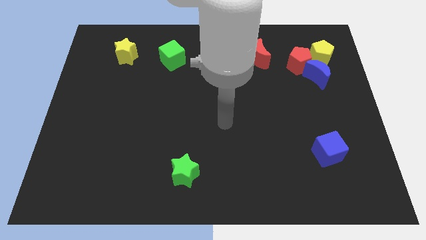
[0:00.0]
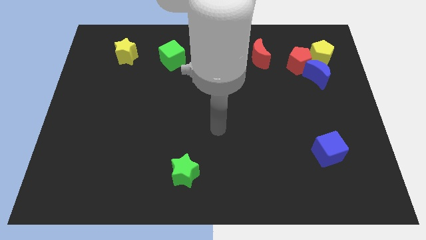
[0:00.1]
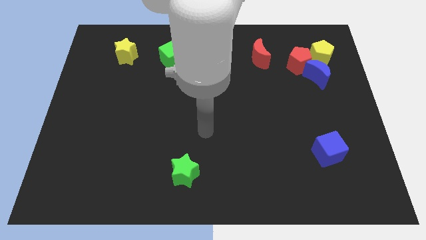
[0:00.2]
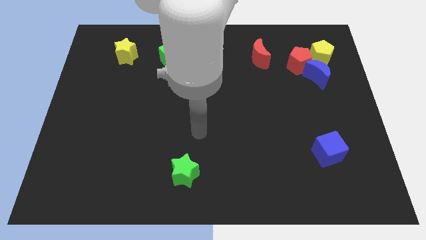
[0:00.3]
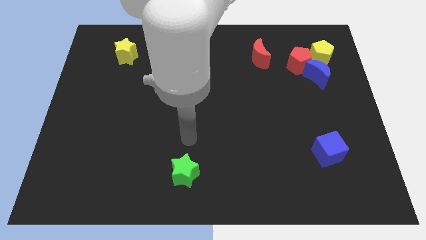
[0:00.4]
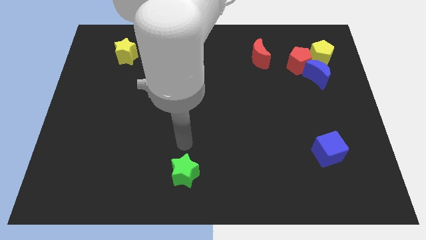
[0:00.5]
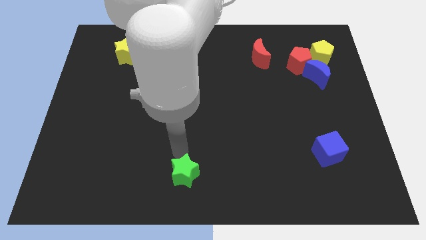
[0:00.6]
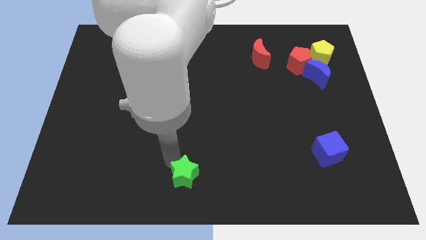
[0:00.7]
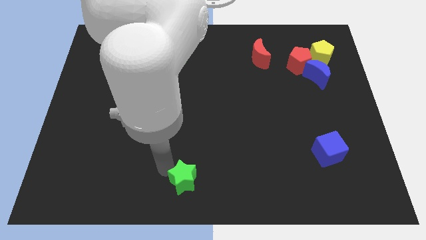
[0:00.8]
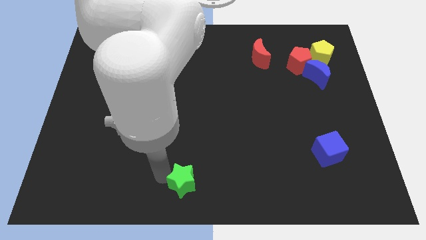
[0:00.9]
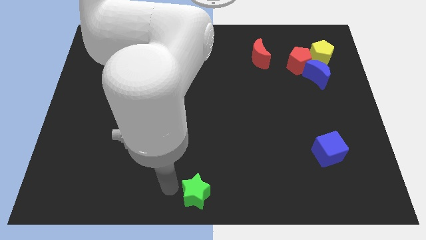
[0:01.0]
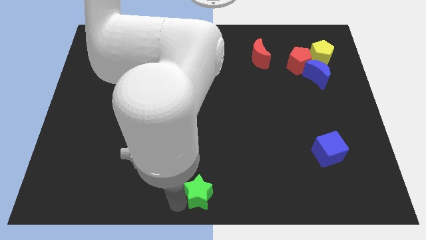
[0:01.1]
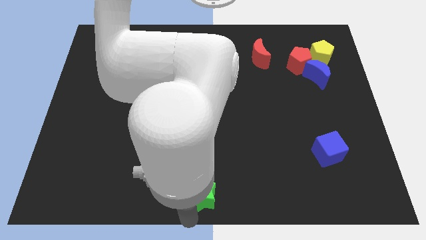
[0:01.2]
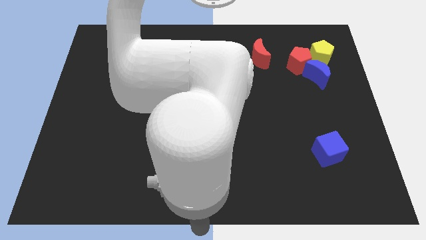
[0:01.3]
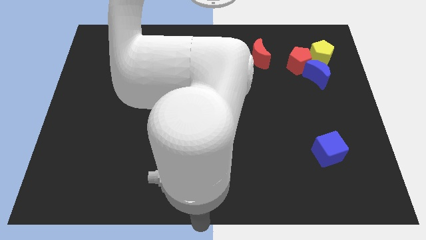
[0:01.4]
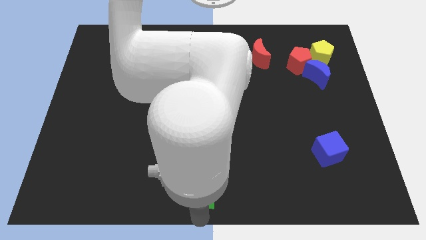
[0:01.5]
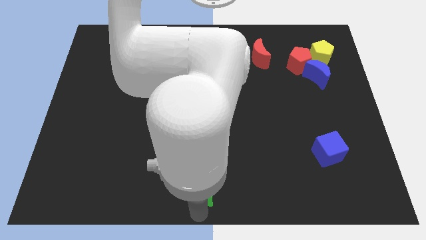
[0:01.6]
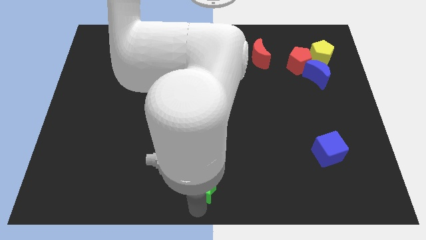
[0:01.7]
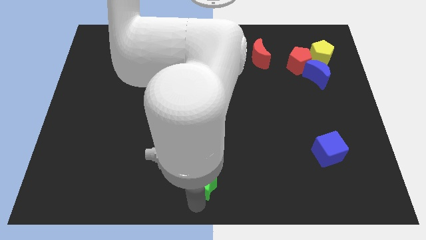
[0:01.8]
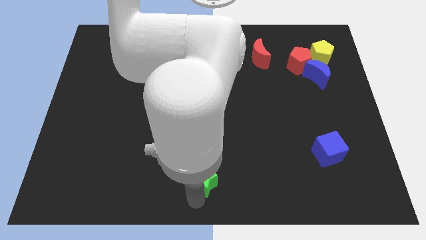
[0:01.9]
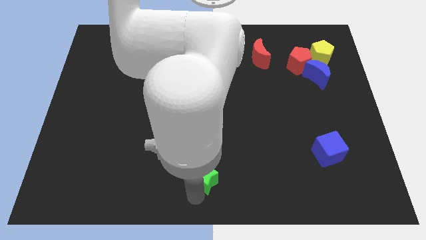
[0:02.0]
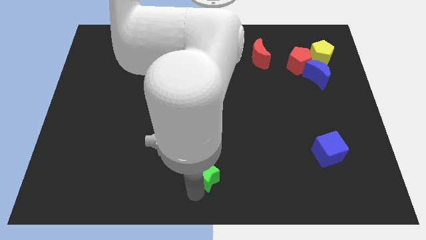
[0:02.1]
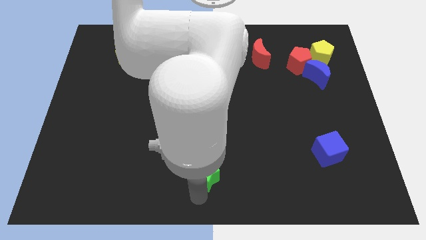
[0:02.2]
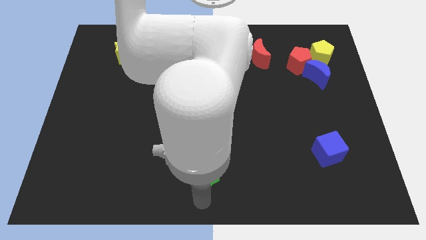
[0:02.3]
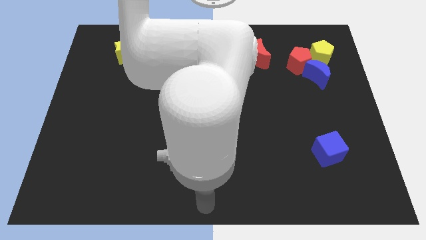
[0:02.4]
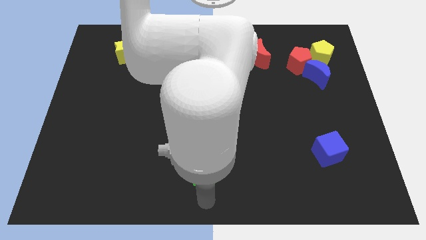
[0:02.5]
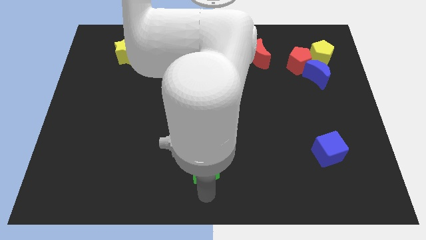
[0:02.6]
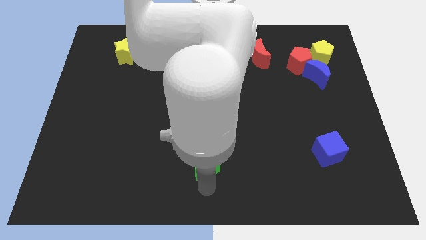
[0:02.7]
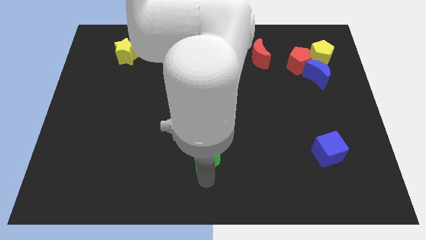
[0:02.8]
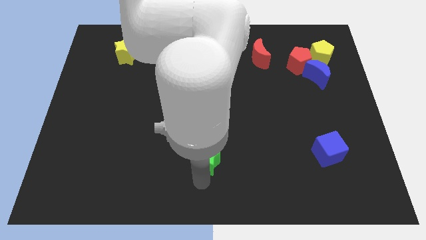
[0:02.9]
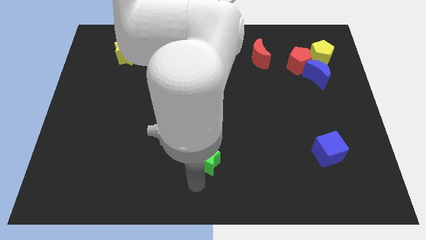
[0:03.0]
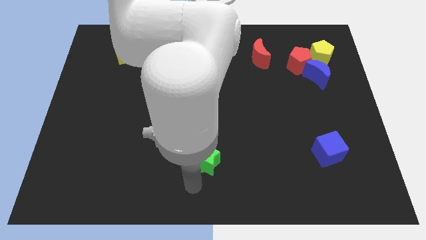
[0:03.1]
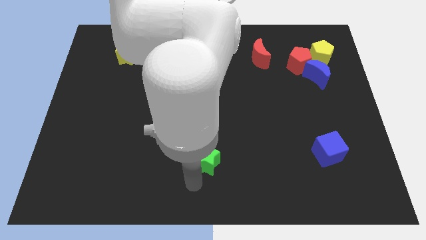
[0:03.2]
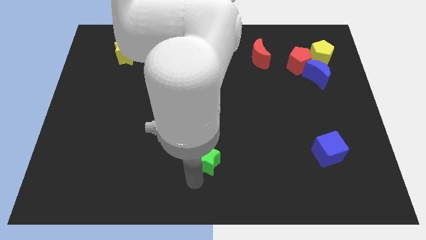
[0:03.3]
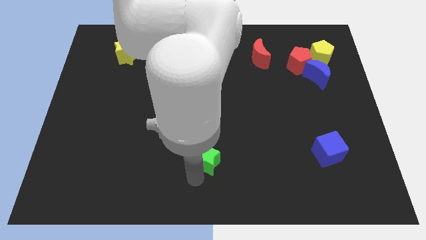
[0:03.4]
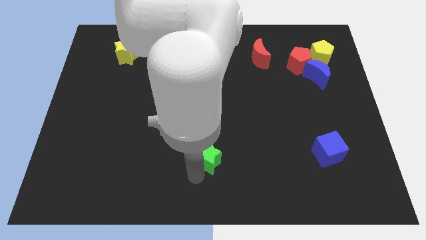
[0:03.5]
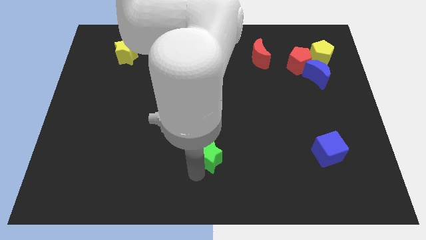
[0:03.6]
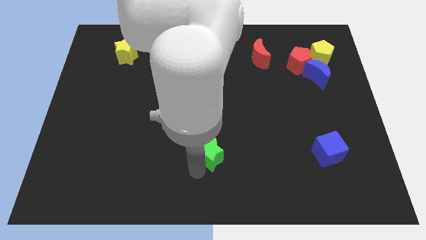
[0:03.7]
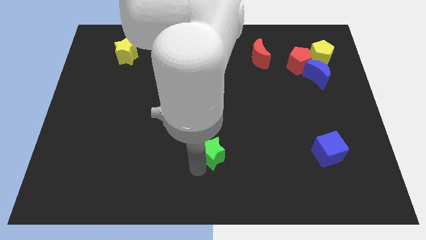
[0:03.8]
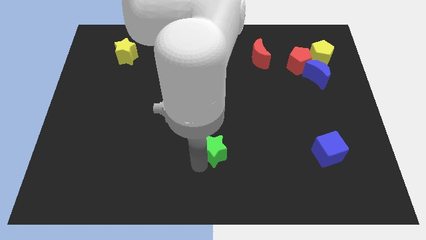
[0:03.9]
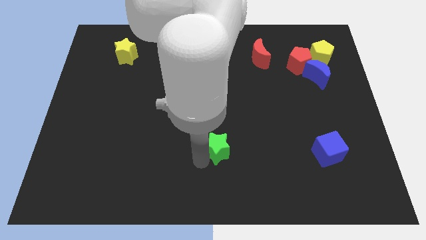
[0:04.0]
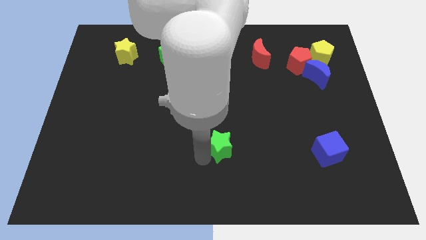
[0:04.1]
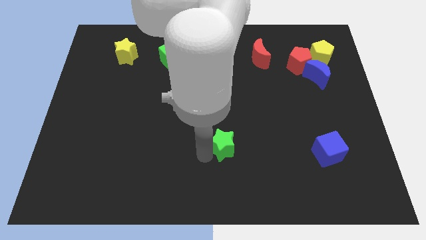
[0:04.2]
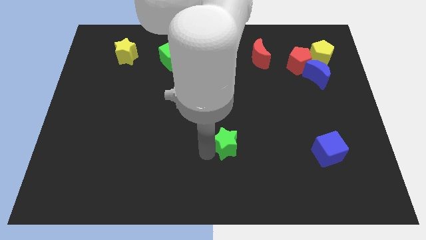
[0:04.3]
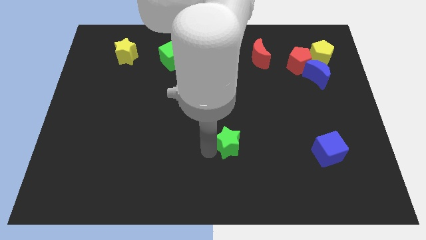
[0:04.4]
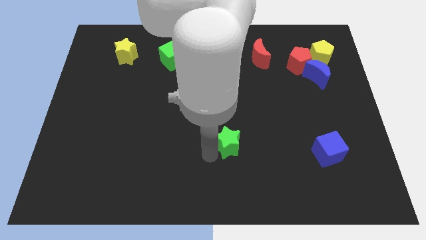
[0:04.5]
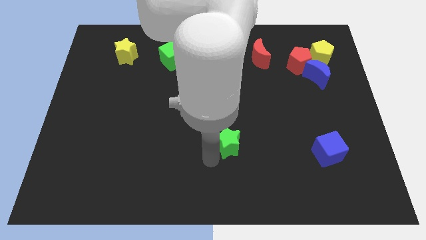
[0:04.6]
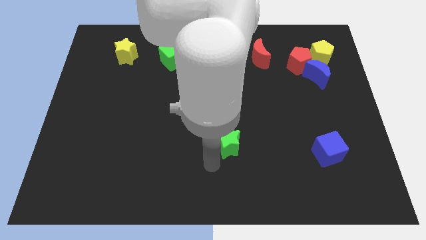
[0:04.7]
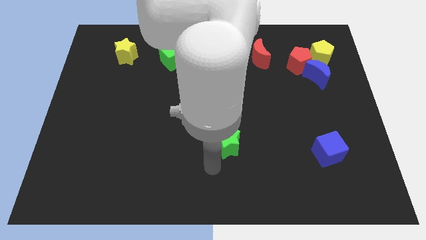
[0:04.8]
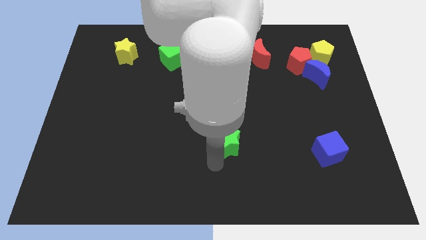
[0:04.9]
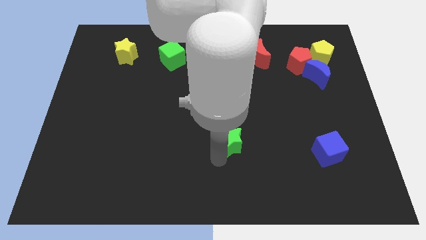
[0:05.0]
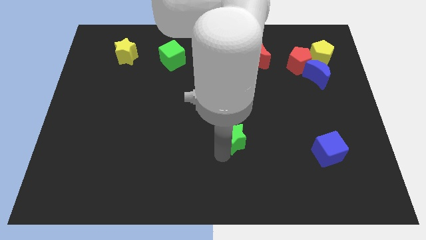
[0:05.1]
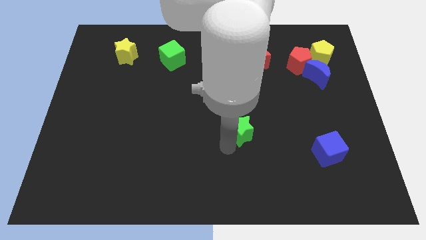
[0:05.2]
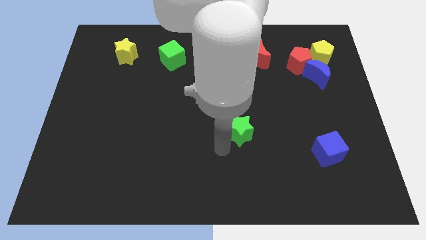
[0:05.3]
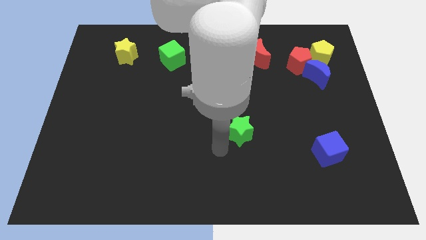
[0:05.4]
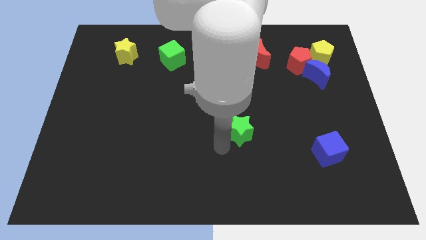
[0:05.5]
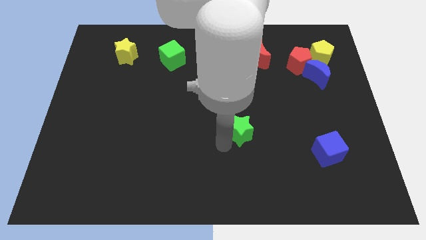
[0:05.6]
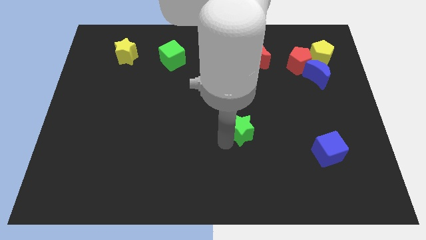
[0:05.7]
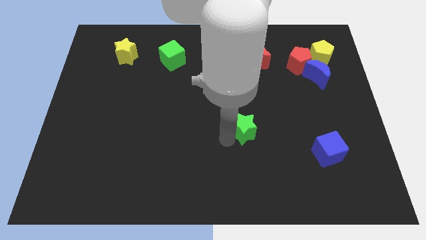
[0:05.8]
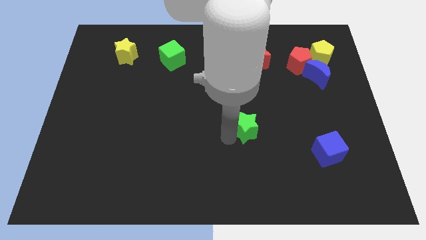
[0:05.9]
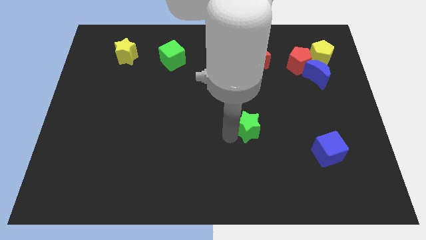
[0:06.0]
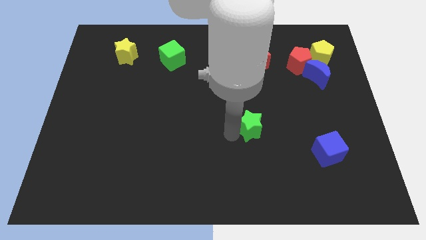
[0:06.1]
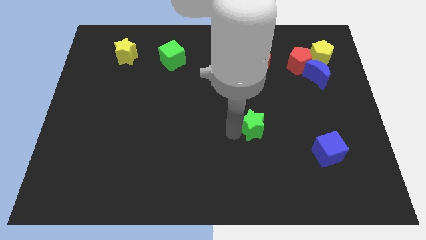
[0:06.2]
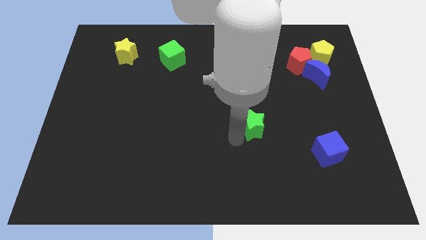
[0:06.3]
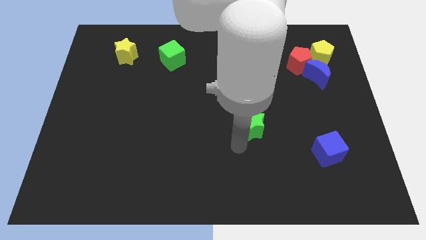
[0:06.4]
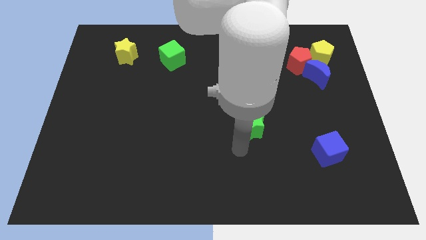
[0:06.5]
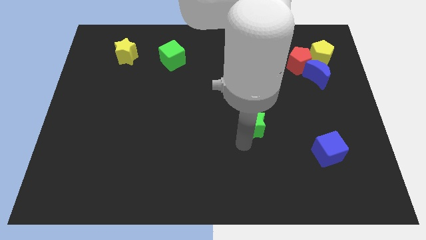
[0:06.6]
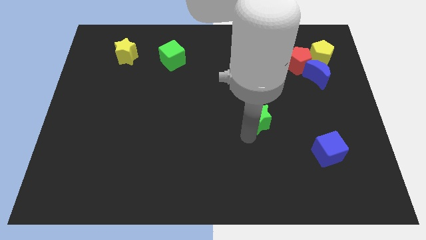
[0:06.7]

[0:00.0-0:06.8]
move the green star up and then to the right

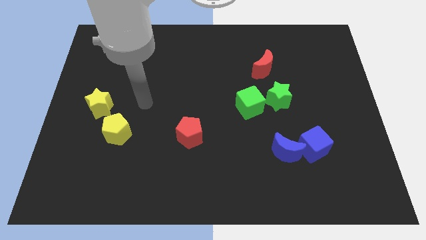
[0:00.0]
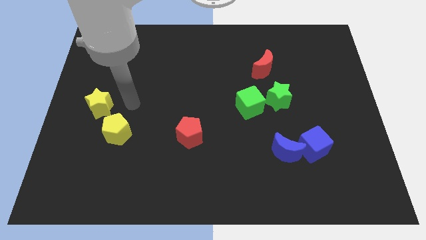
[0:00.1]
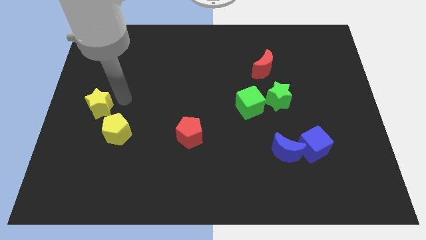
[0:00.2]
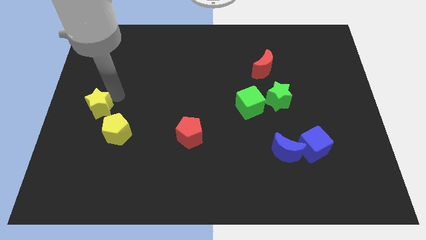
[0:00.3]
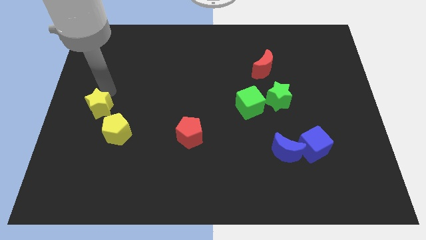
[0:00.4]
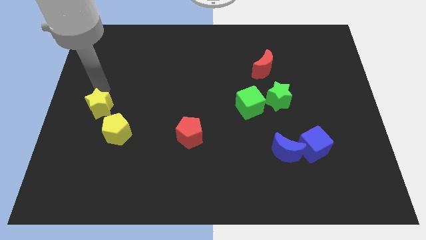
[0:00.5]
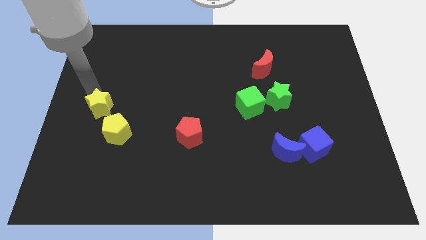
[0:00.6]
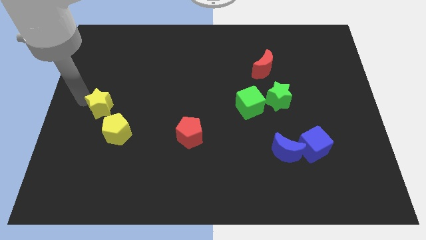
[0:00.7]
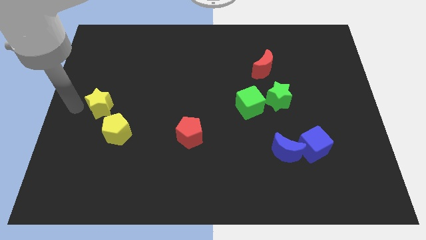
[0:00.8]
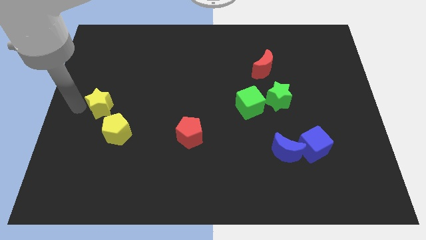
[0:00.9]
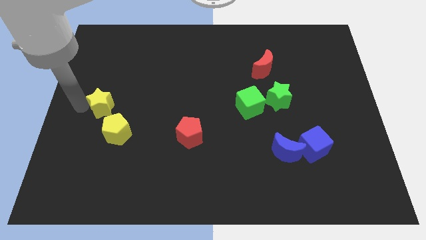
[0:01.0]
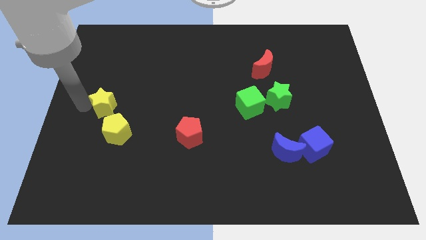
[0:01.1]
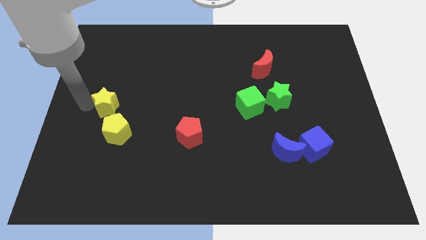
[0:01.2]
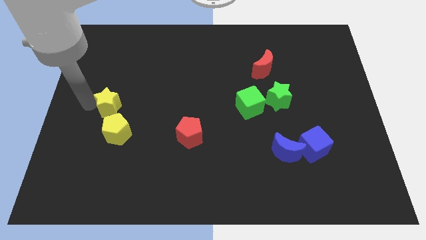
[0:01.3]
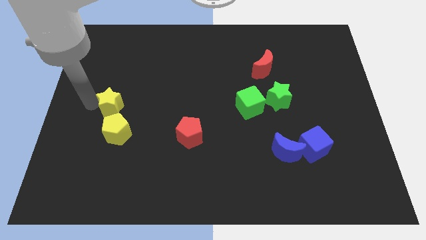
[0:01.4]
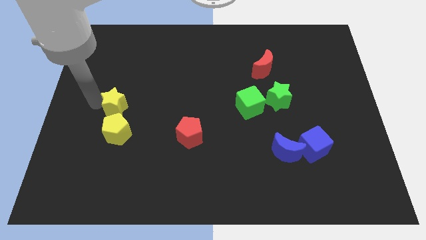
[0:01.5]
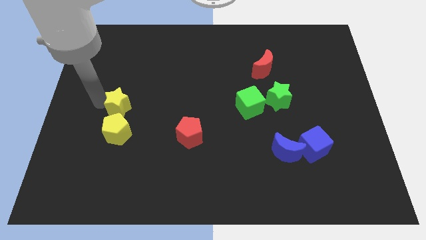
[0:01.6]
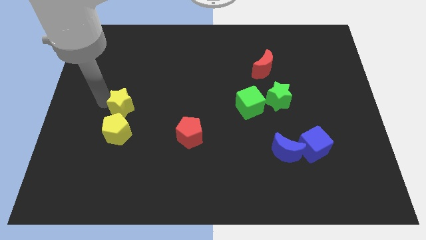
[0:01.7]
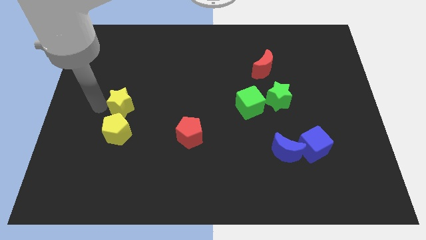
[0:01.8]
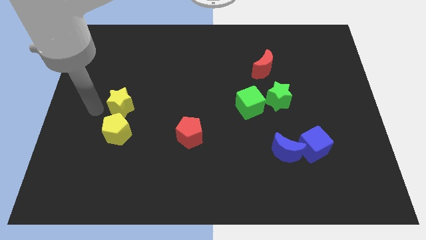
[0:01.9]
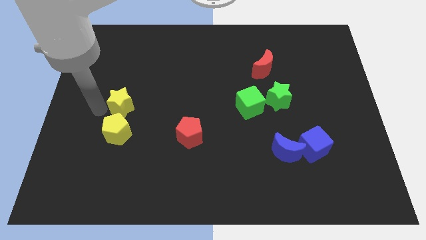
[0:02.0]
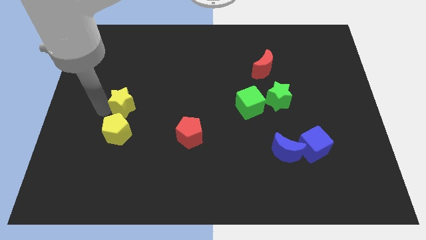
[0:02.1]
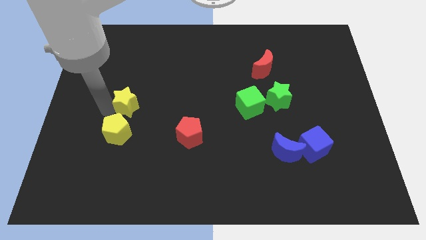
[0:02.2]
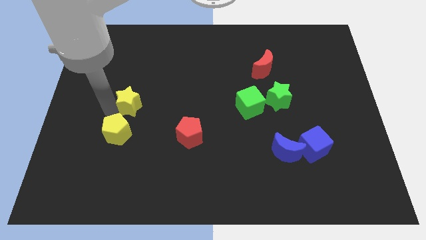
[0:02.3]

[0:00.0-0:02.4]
slide the yellow star right a little
